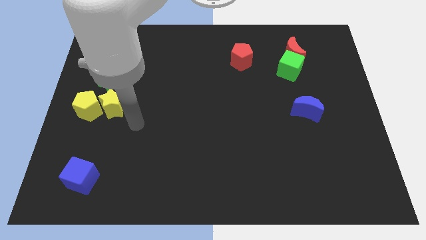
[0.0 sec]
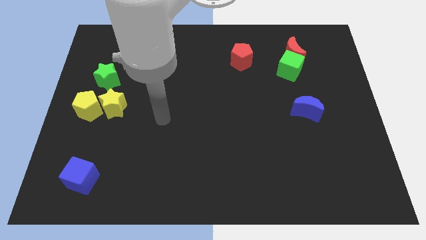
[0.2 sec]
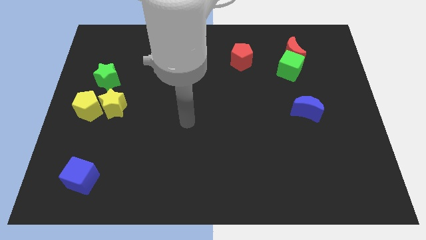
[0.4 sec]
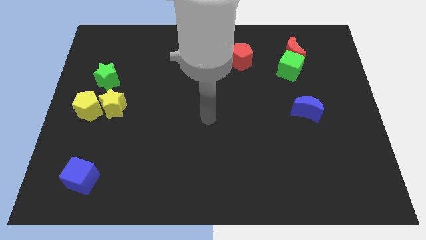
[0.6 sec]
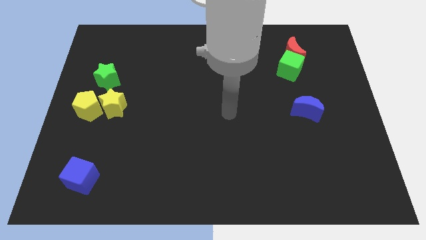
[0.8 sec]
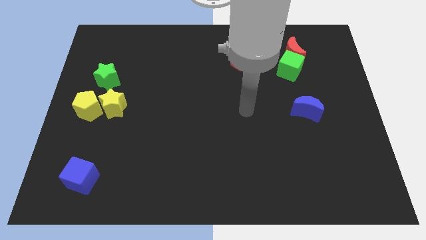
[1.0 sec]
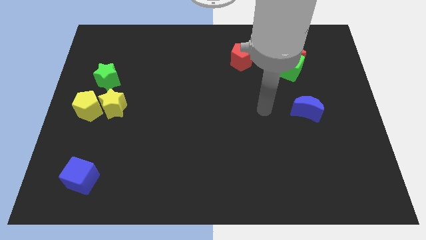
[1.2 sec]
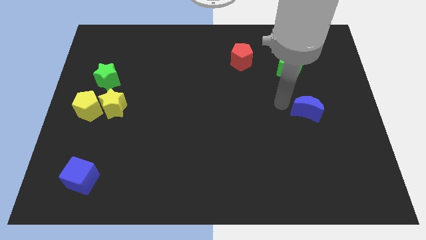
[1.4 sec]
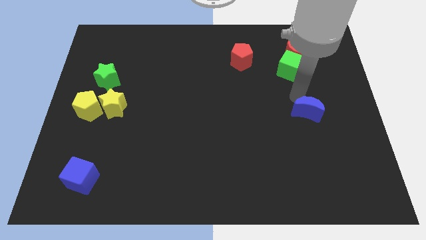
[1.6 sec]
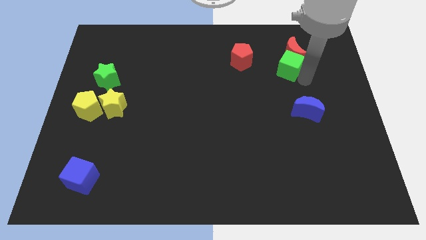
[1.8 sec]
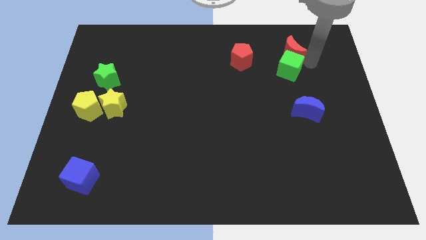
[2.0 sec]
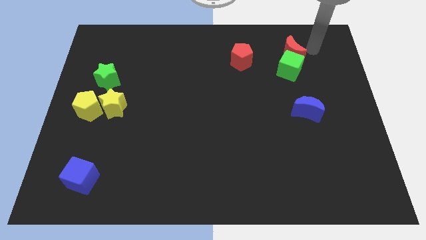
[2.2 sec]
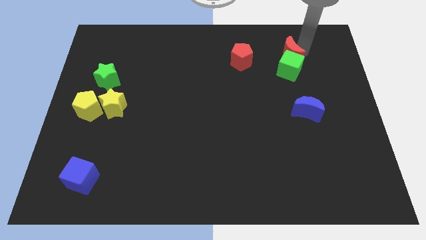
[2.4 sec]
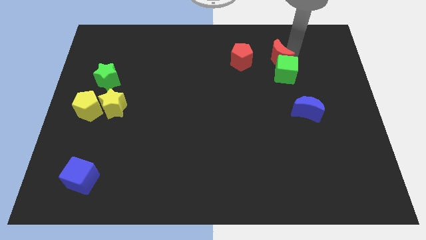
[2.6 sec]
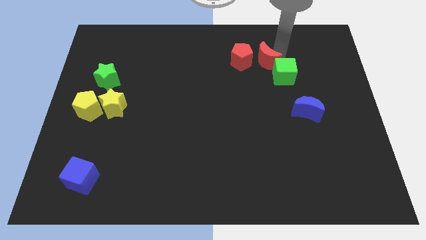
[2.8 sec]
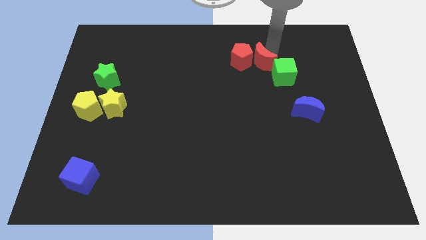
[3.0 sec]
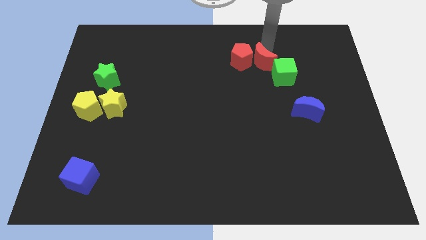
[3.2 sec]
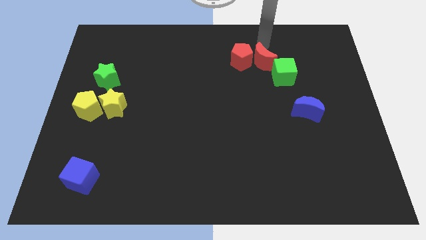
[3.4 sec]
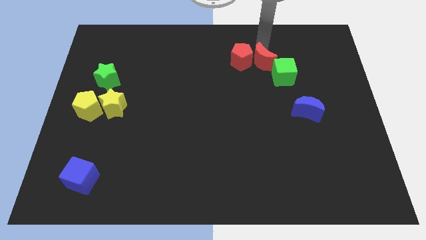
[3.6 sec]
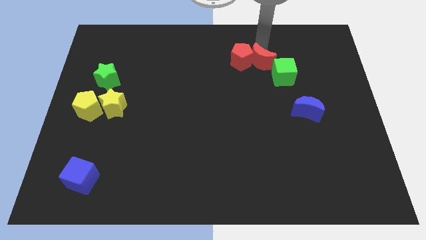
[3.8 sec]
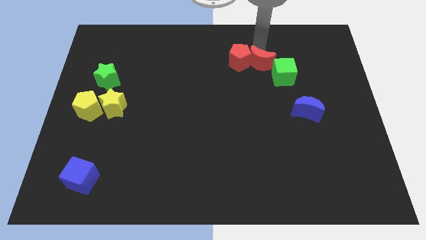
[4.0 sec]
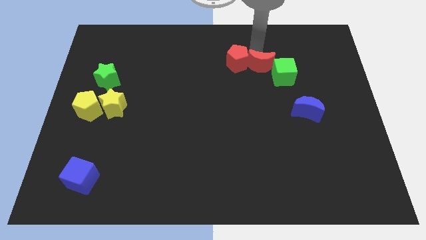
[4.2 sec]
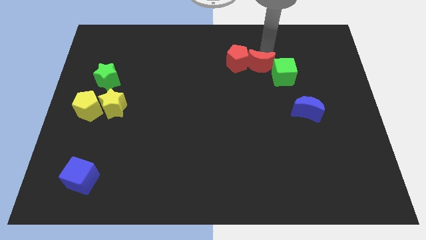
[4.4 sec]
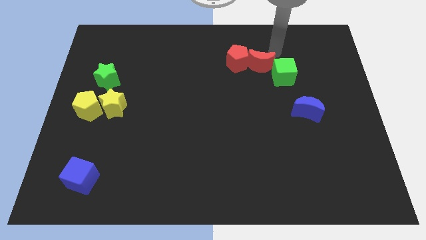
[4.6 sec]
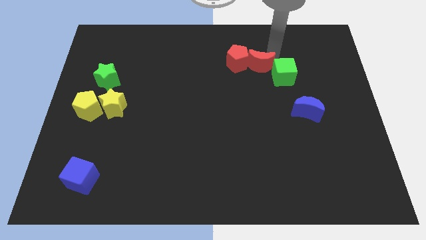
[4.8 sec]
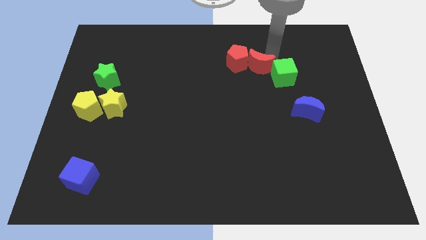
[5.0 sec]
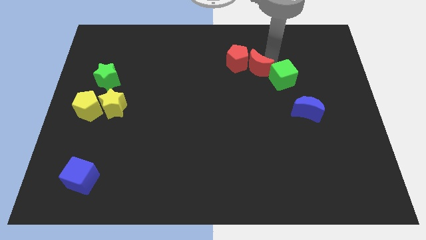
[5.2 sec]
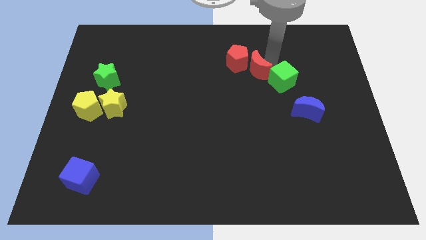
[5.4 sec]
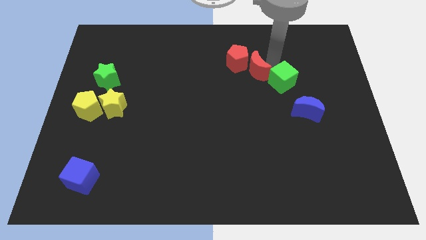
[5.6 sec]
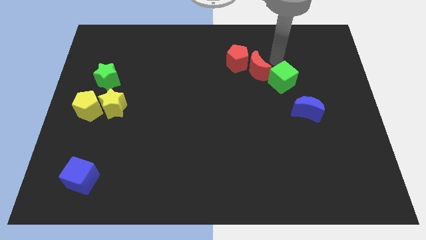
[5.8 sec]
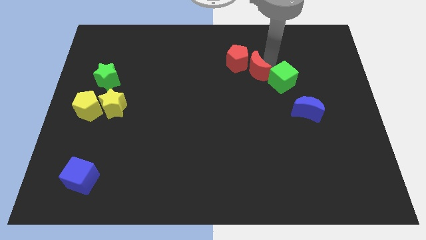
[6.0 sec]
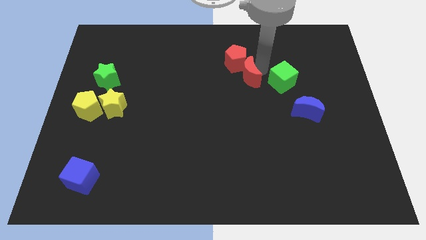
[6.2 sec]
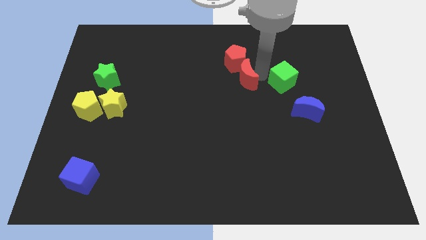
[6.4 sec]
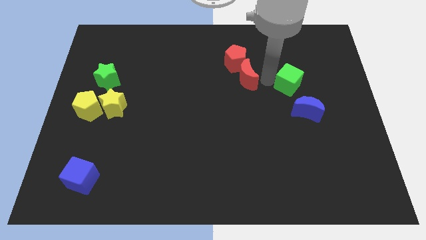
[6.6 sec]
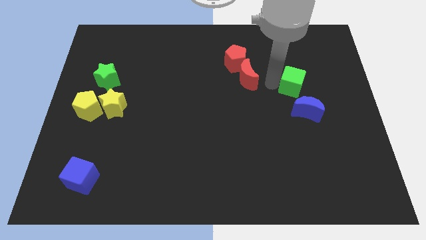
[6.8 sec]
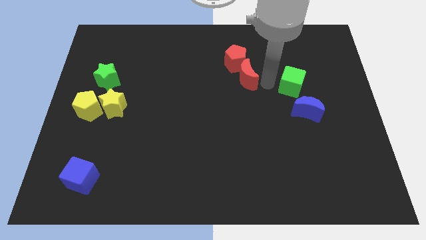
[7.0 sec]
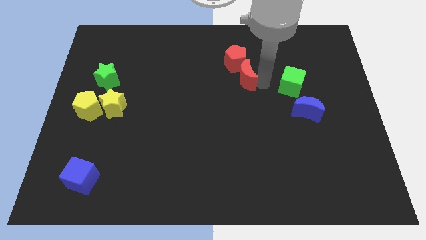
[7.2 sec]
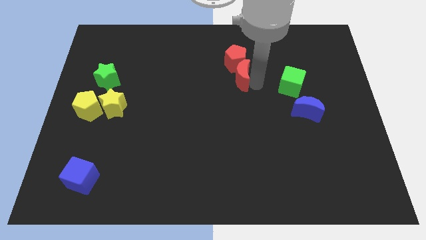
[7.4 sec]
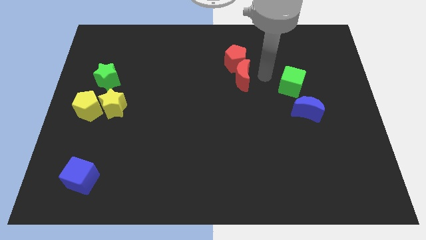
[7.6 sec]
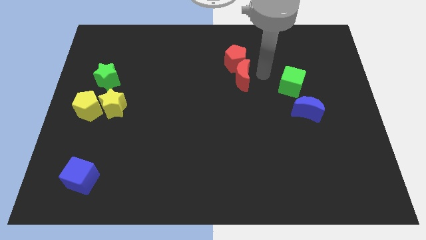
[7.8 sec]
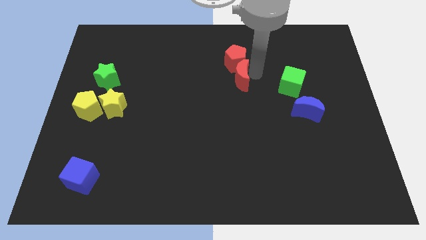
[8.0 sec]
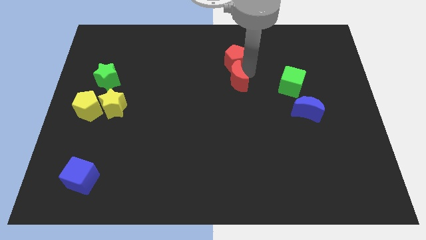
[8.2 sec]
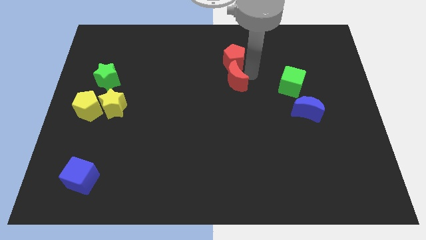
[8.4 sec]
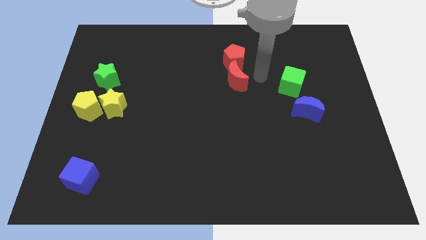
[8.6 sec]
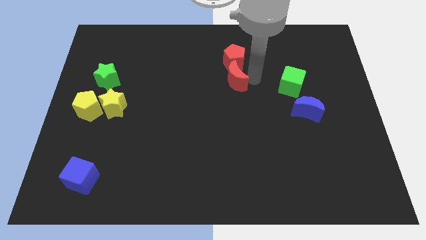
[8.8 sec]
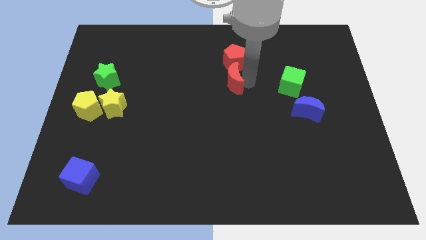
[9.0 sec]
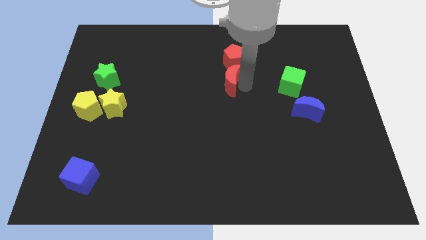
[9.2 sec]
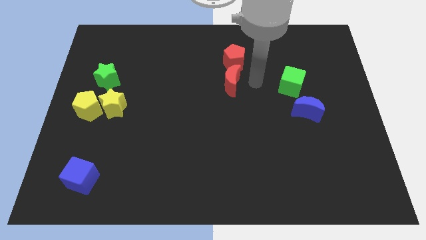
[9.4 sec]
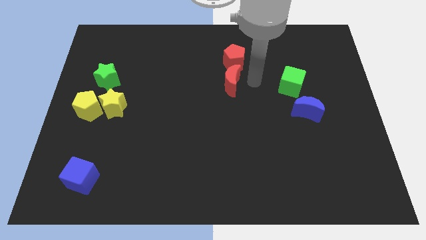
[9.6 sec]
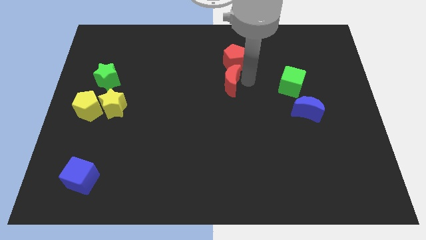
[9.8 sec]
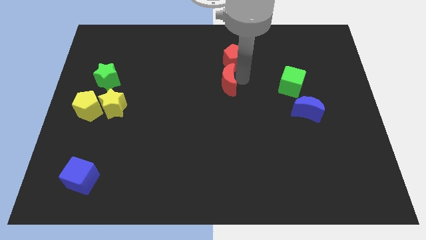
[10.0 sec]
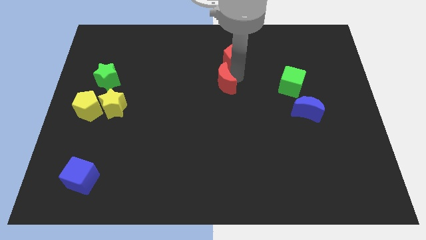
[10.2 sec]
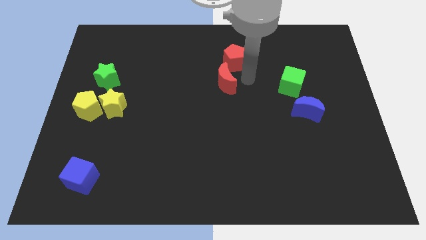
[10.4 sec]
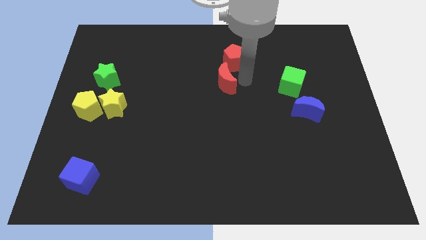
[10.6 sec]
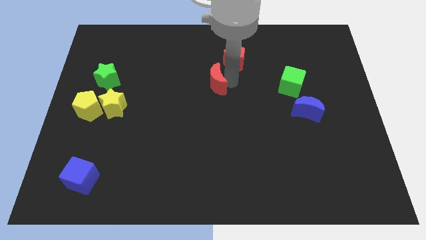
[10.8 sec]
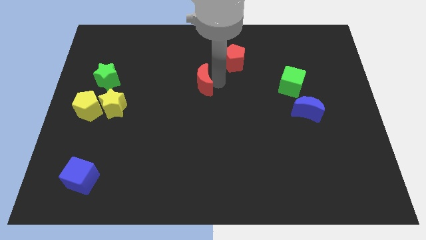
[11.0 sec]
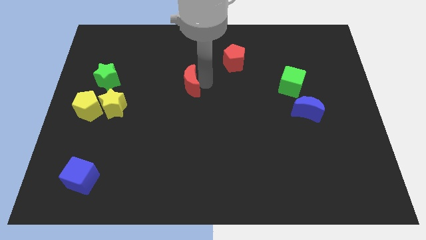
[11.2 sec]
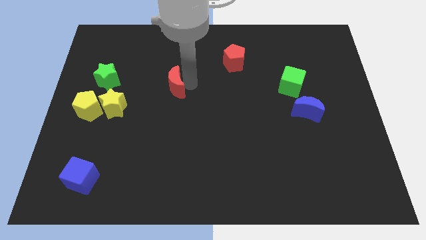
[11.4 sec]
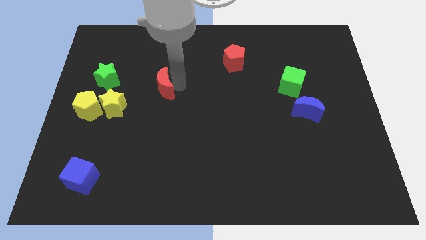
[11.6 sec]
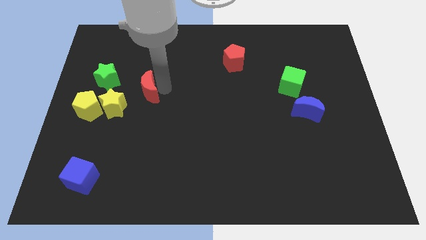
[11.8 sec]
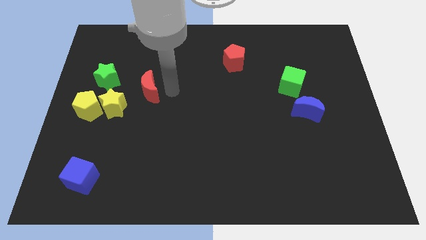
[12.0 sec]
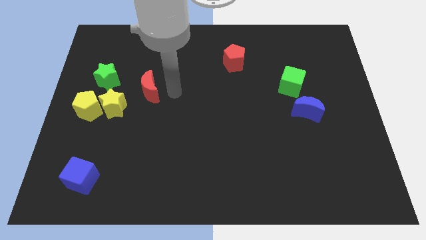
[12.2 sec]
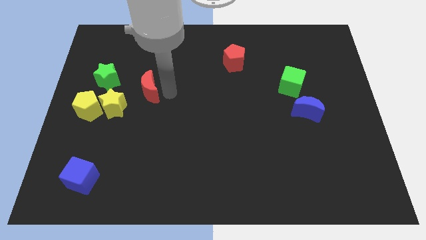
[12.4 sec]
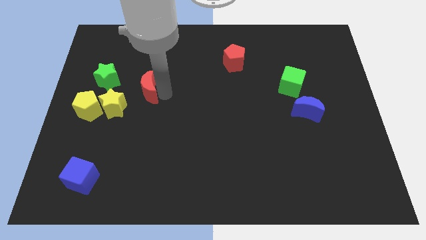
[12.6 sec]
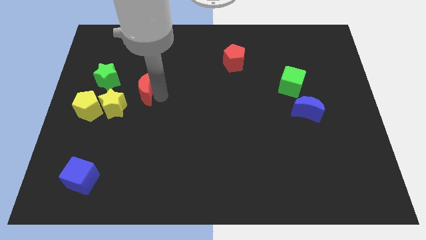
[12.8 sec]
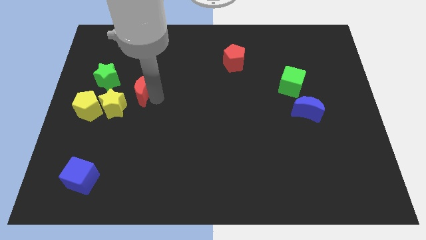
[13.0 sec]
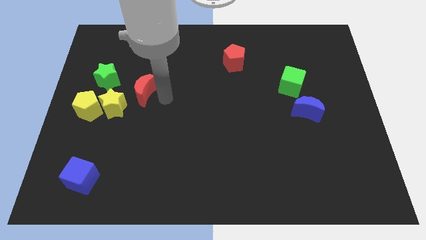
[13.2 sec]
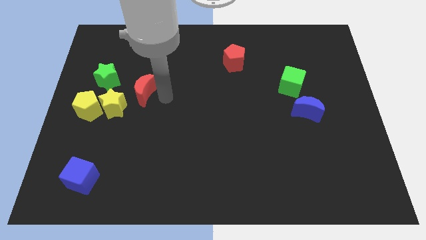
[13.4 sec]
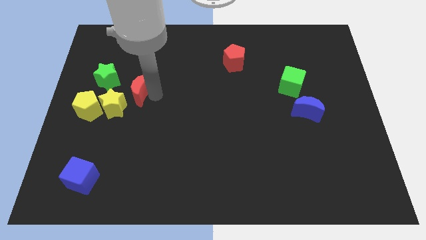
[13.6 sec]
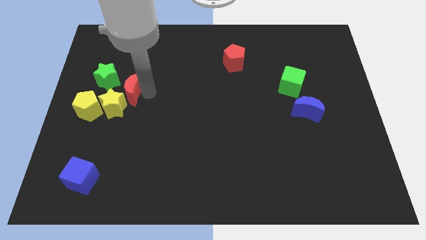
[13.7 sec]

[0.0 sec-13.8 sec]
move the red moon to the top right side of the yellow pentagon

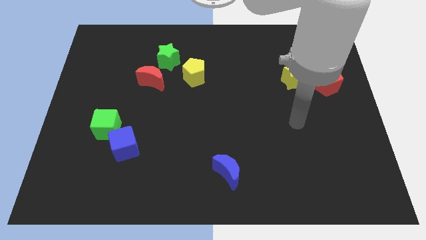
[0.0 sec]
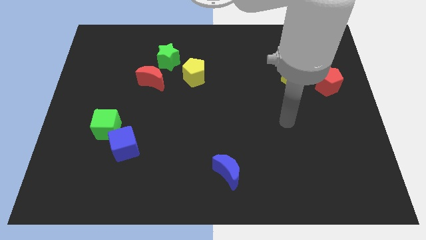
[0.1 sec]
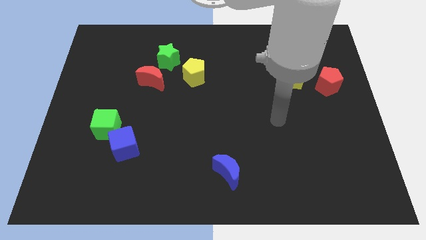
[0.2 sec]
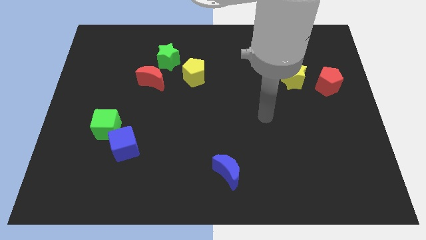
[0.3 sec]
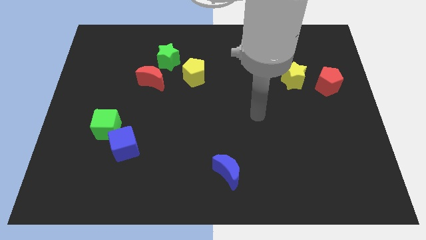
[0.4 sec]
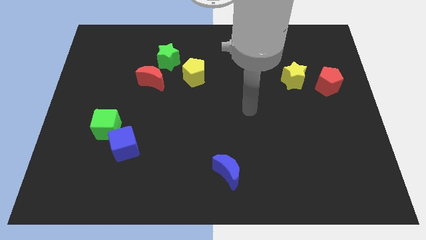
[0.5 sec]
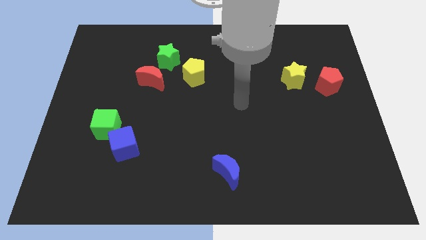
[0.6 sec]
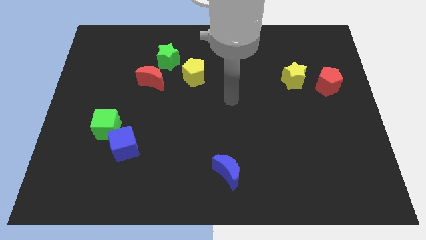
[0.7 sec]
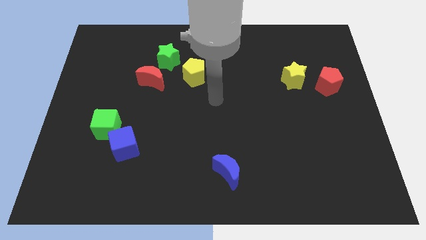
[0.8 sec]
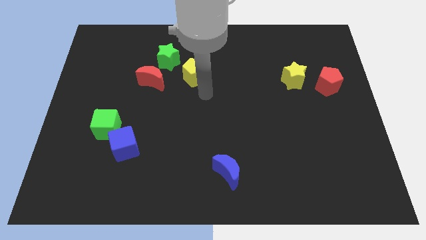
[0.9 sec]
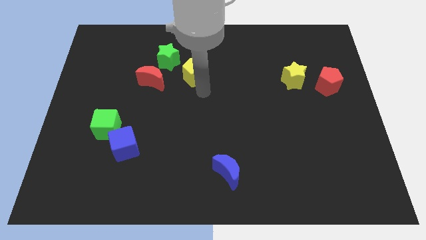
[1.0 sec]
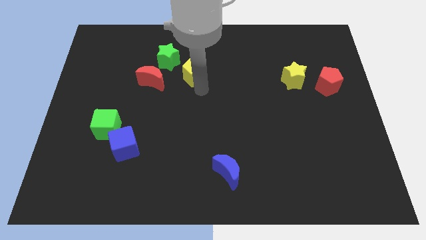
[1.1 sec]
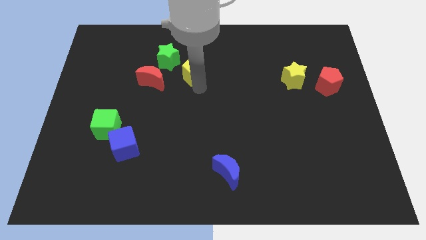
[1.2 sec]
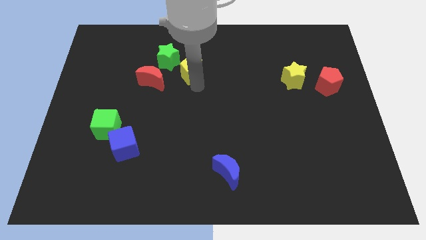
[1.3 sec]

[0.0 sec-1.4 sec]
slide the yellow pentagon to the top right side of the red moon
